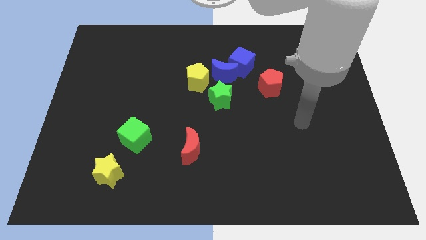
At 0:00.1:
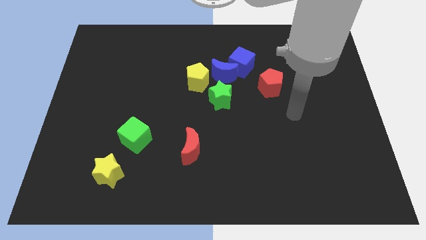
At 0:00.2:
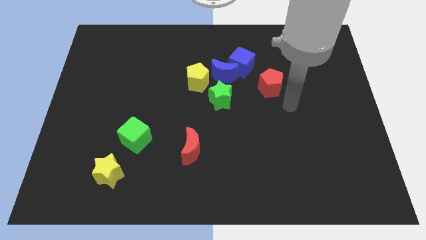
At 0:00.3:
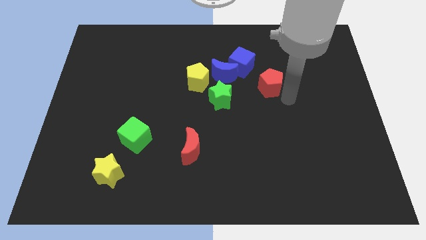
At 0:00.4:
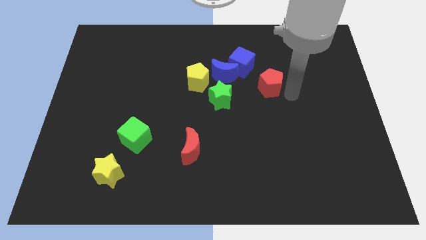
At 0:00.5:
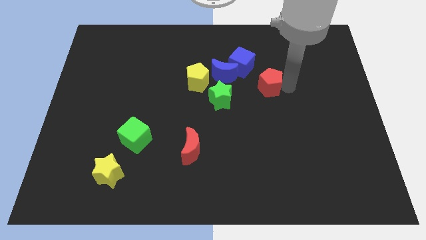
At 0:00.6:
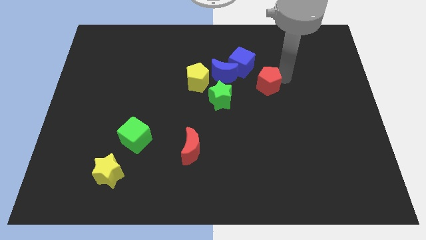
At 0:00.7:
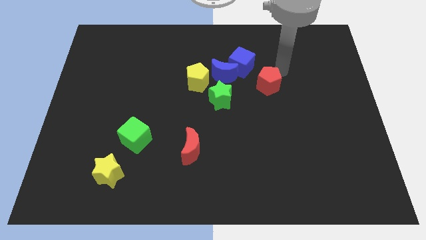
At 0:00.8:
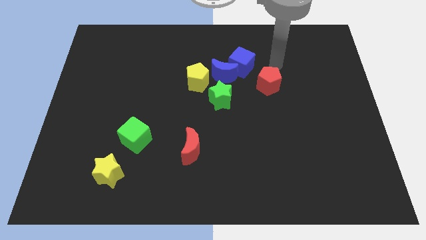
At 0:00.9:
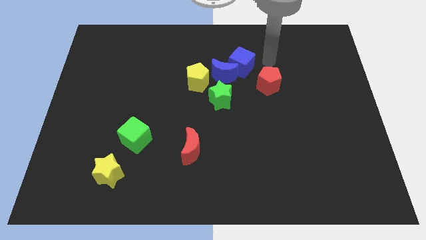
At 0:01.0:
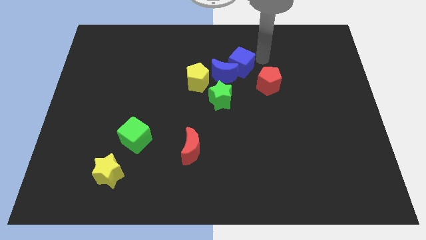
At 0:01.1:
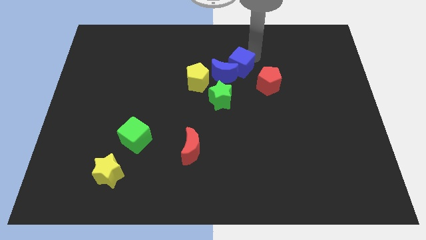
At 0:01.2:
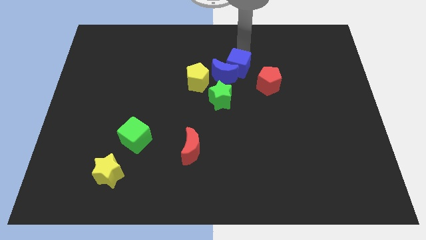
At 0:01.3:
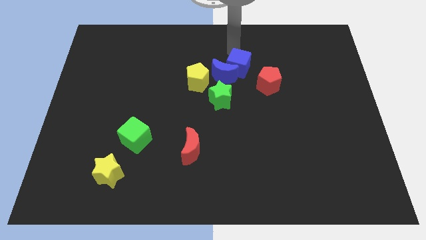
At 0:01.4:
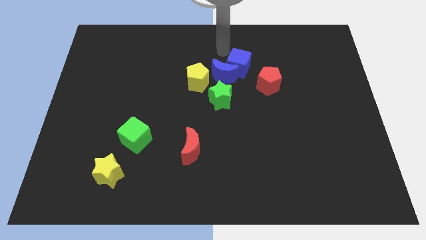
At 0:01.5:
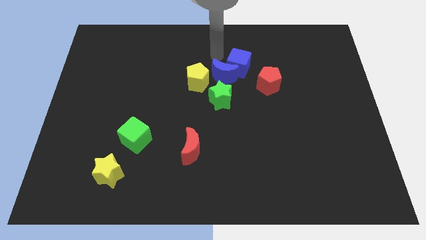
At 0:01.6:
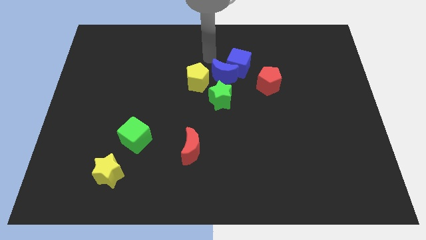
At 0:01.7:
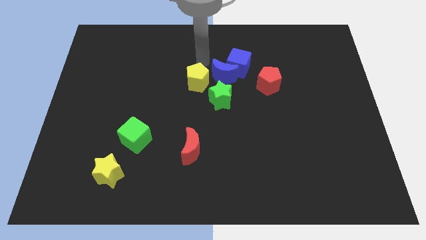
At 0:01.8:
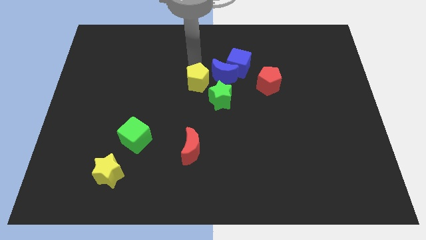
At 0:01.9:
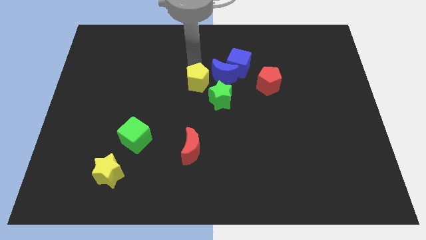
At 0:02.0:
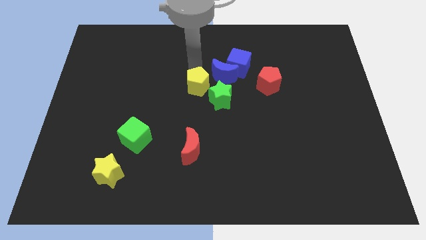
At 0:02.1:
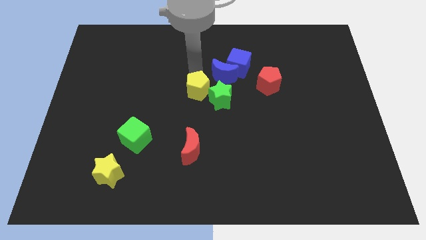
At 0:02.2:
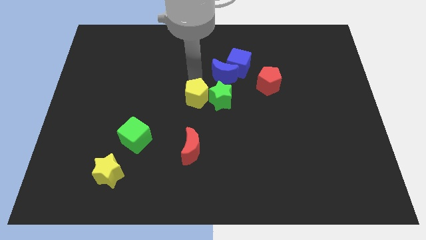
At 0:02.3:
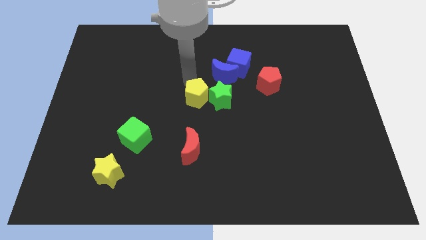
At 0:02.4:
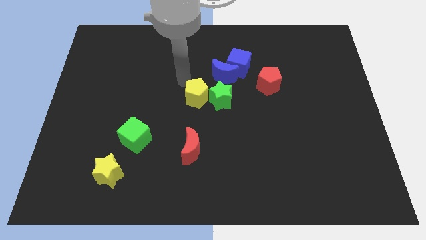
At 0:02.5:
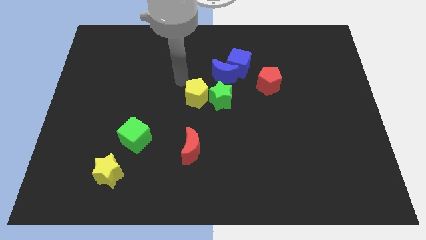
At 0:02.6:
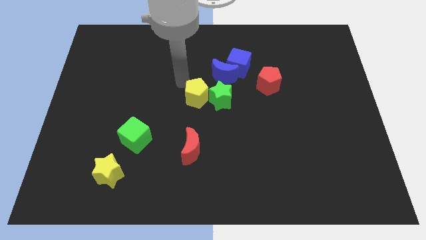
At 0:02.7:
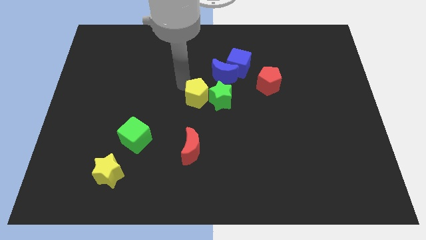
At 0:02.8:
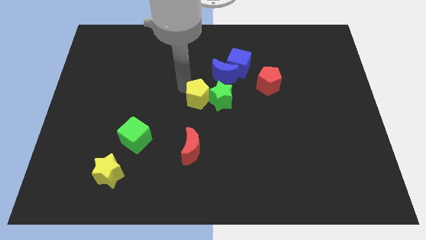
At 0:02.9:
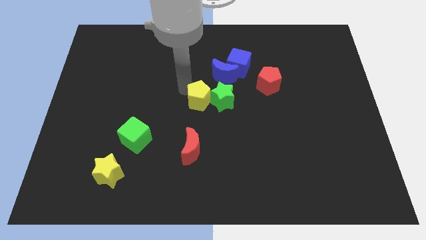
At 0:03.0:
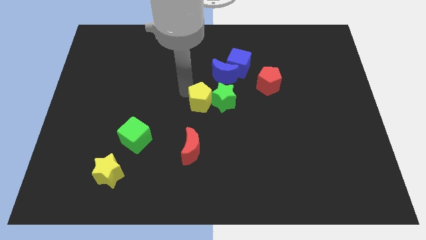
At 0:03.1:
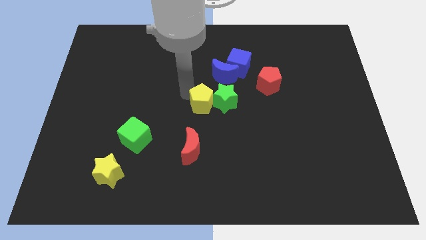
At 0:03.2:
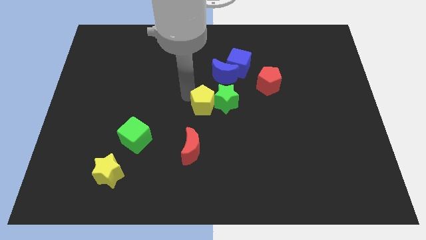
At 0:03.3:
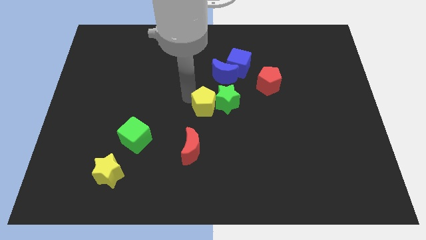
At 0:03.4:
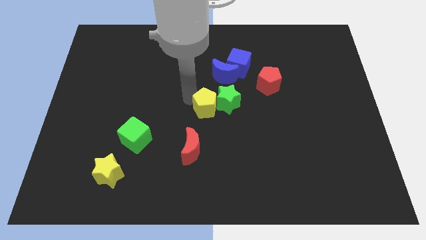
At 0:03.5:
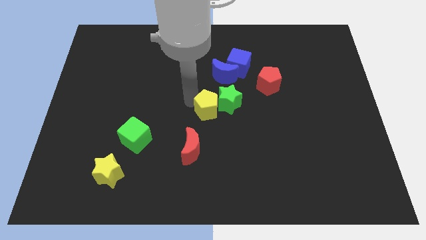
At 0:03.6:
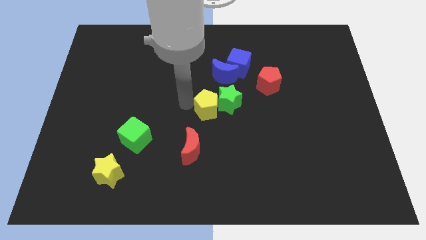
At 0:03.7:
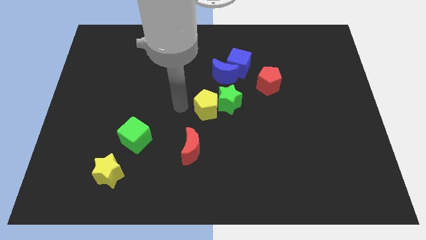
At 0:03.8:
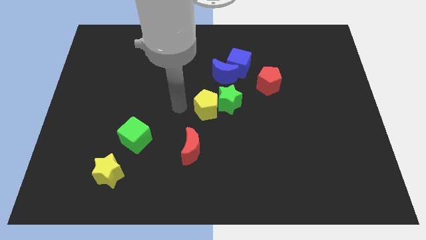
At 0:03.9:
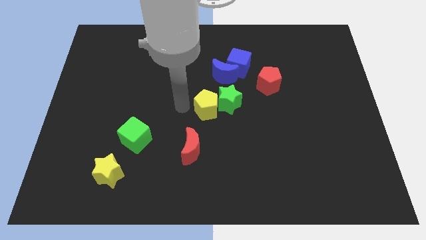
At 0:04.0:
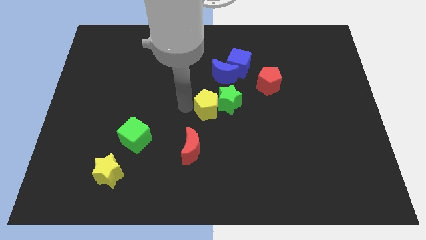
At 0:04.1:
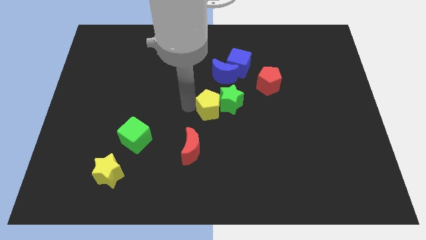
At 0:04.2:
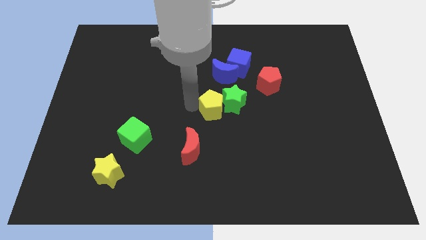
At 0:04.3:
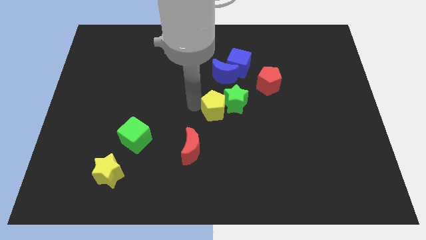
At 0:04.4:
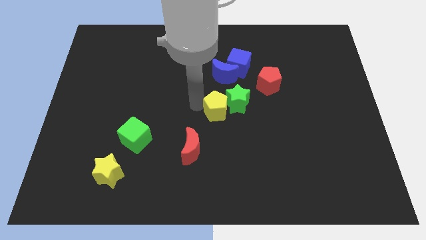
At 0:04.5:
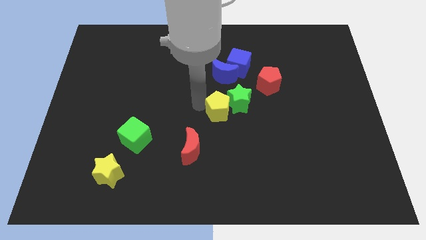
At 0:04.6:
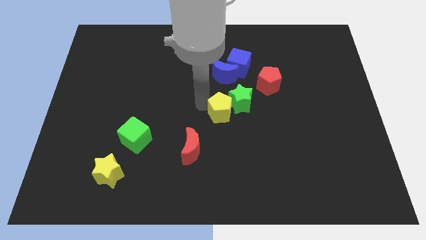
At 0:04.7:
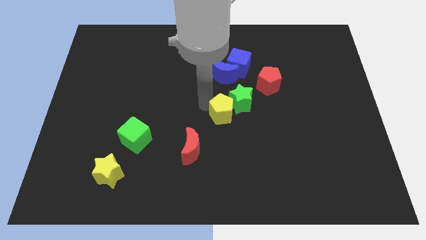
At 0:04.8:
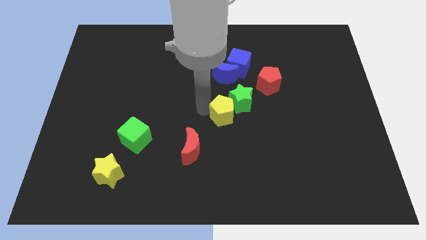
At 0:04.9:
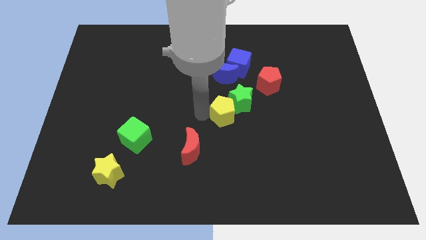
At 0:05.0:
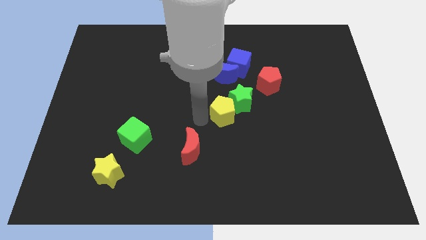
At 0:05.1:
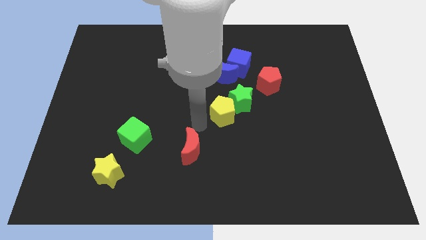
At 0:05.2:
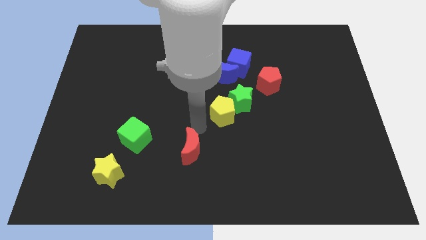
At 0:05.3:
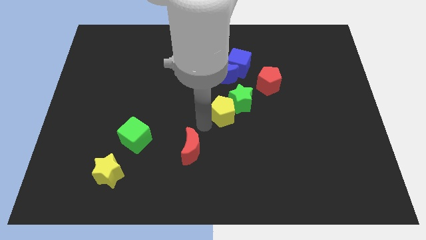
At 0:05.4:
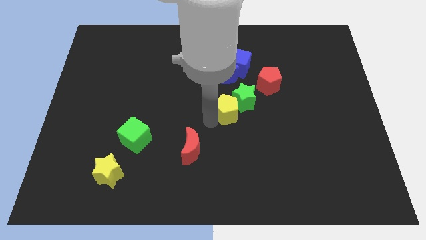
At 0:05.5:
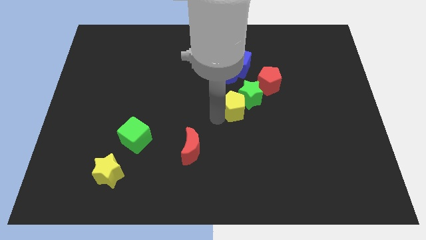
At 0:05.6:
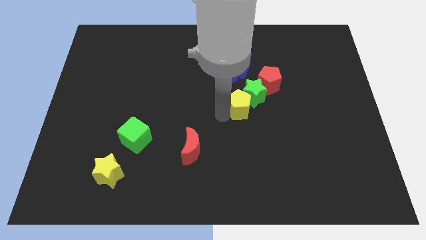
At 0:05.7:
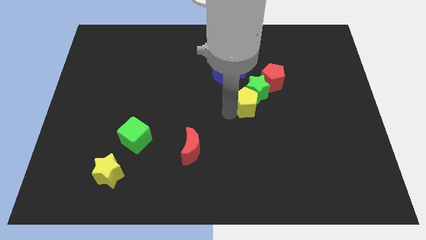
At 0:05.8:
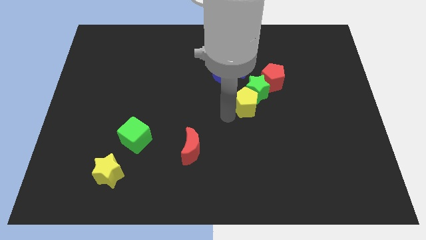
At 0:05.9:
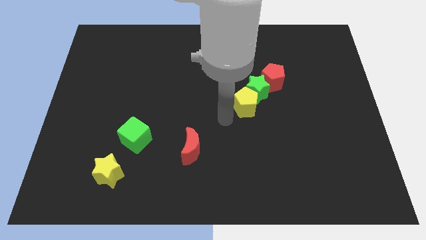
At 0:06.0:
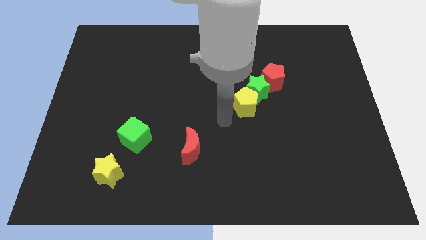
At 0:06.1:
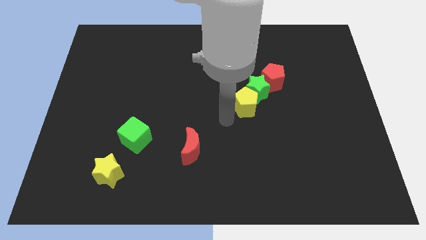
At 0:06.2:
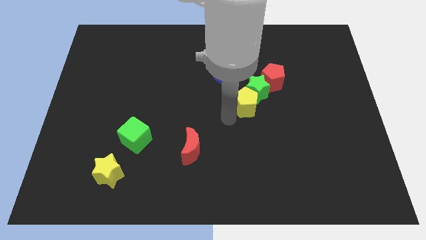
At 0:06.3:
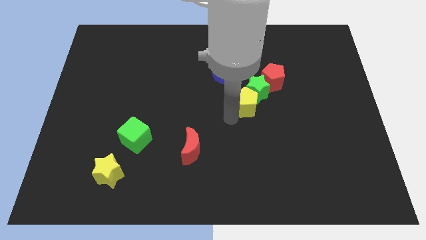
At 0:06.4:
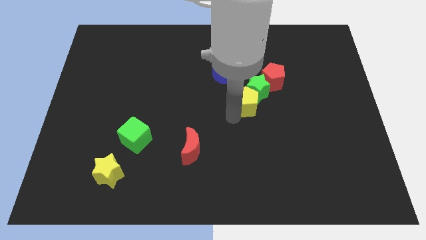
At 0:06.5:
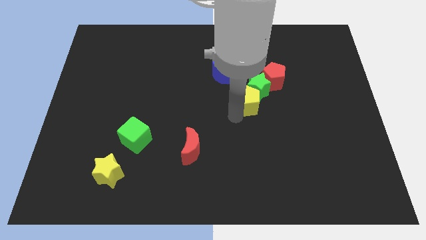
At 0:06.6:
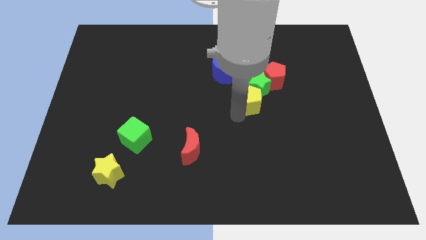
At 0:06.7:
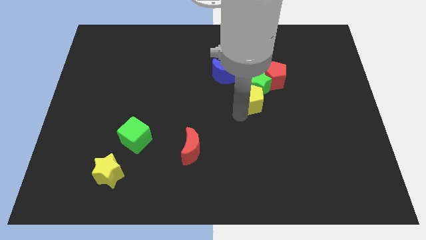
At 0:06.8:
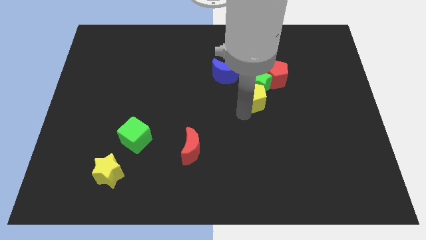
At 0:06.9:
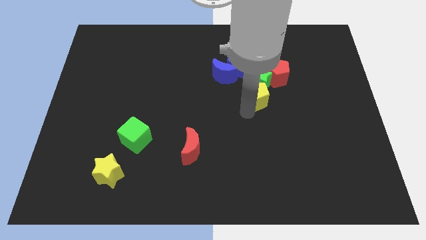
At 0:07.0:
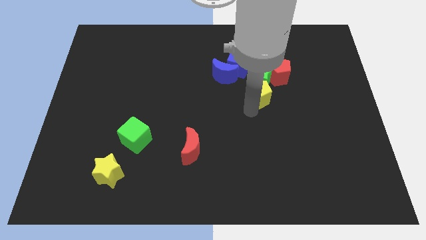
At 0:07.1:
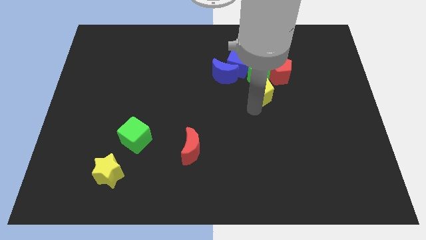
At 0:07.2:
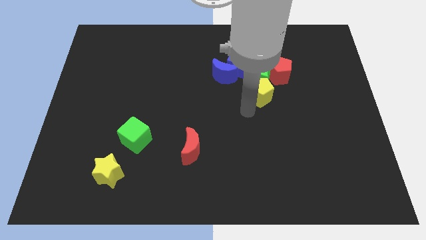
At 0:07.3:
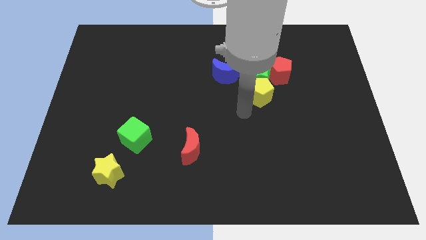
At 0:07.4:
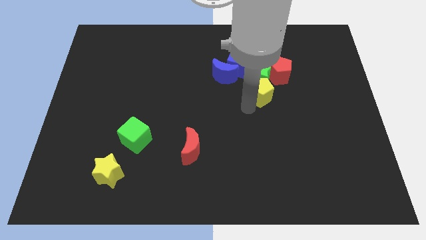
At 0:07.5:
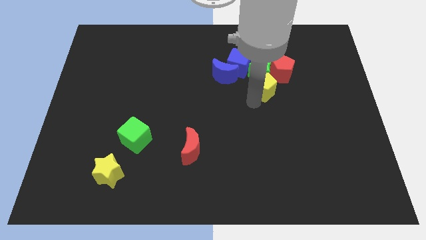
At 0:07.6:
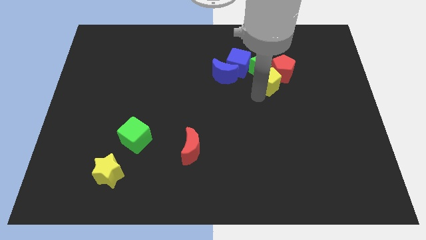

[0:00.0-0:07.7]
move the yellow pentagon close to the red pentagon
